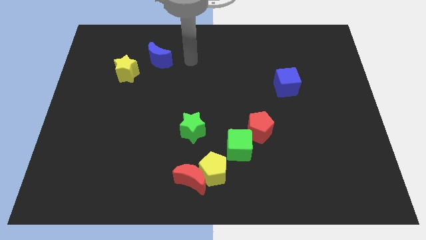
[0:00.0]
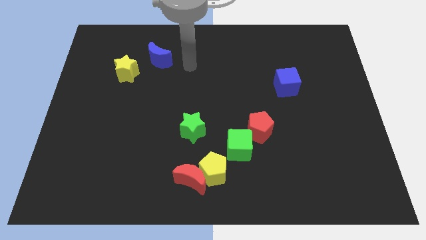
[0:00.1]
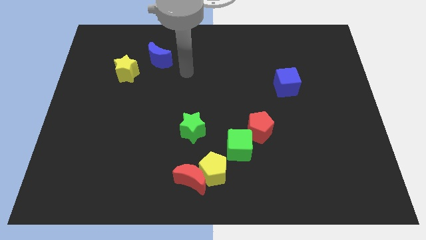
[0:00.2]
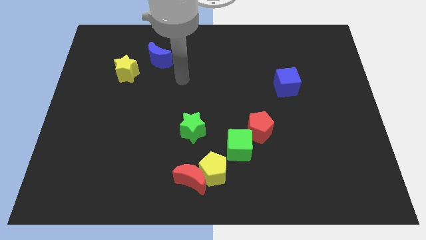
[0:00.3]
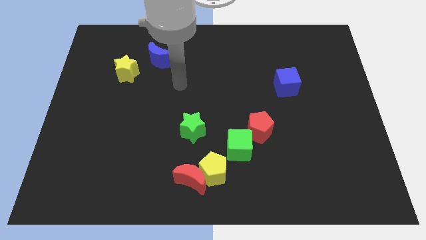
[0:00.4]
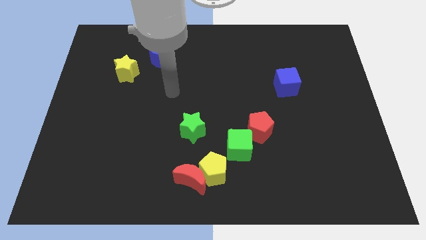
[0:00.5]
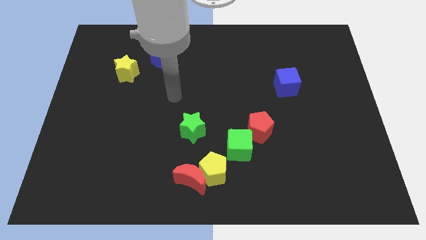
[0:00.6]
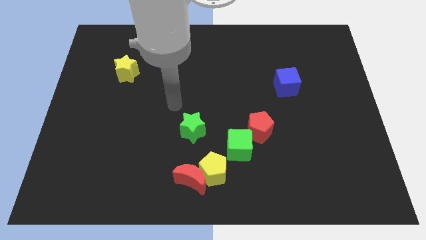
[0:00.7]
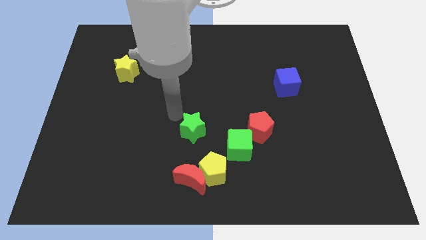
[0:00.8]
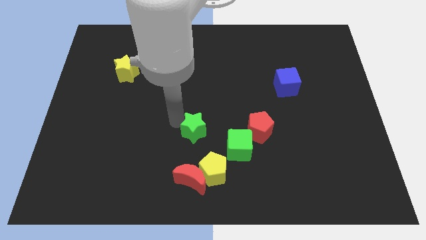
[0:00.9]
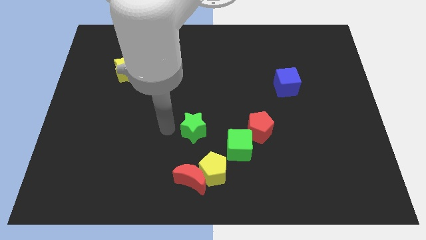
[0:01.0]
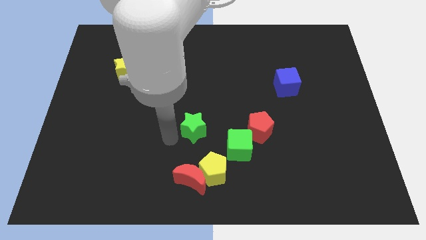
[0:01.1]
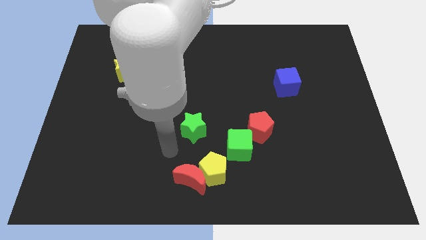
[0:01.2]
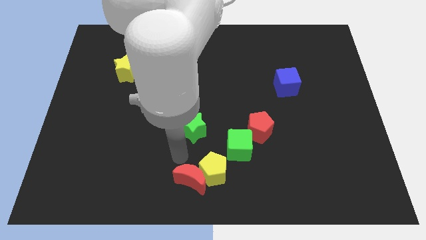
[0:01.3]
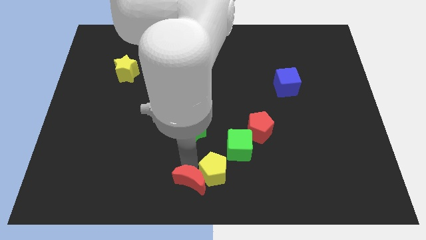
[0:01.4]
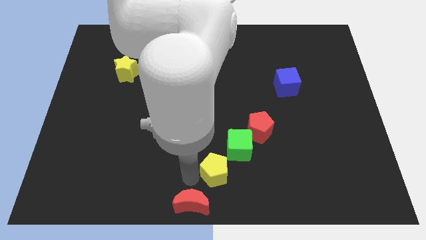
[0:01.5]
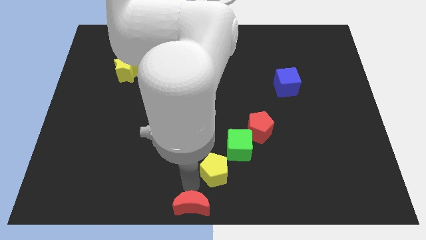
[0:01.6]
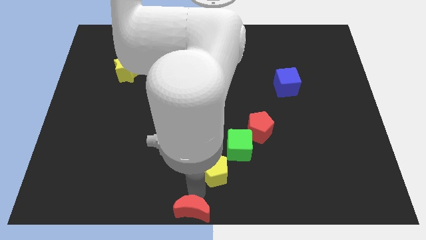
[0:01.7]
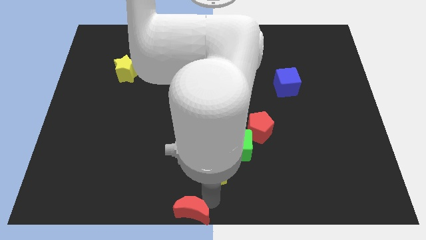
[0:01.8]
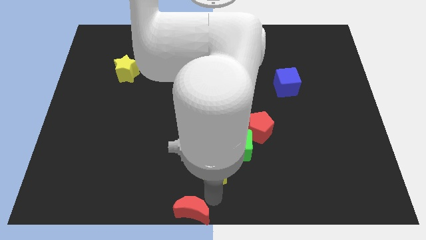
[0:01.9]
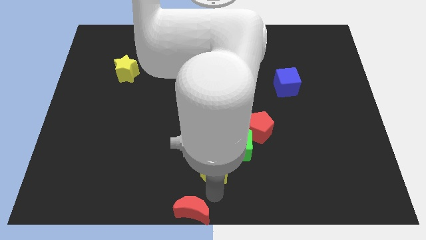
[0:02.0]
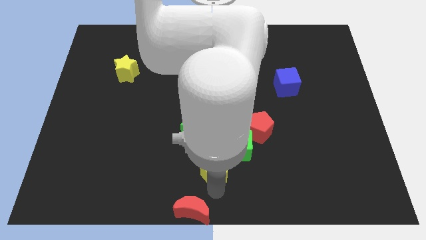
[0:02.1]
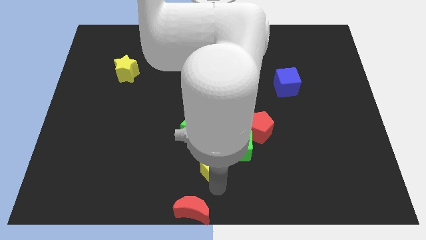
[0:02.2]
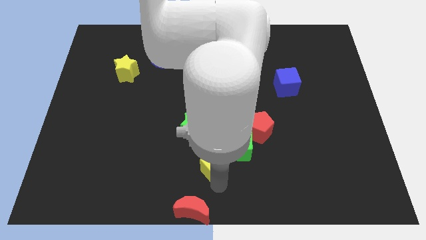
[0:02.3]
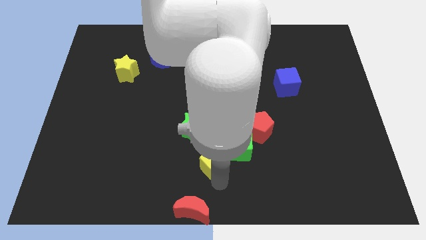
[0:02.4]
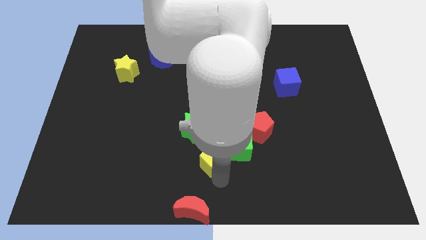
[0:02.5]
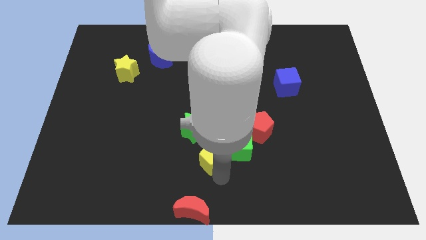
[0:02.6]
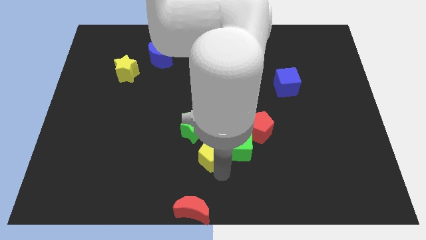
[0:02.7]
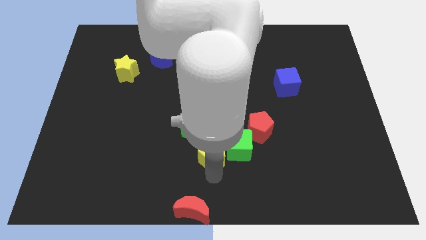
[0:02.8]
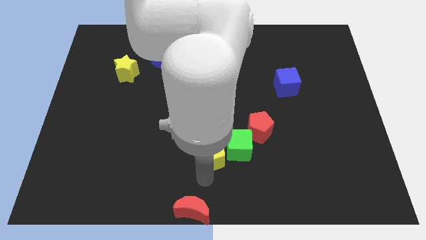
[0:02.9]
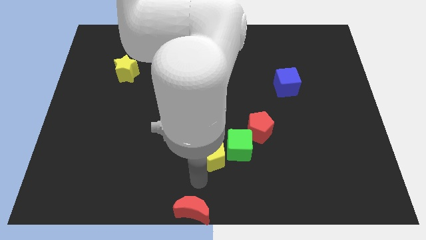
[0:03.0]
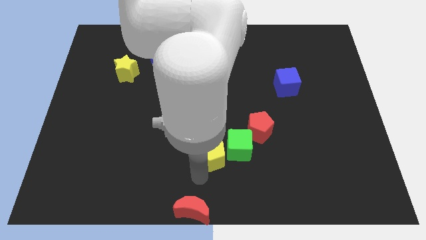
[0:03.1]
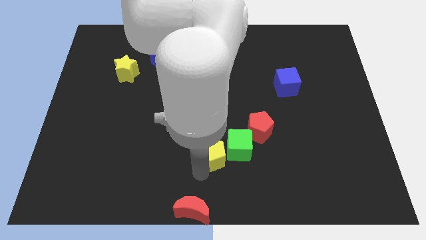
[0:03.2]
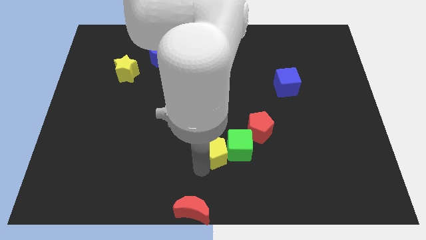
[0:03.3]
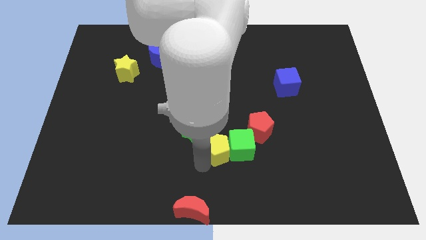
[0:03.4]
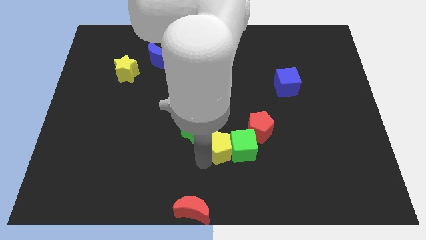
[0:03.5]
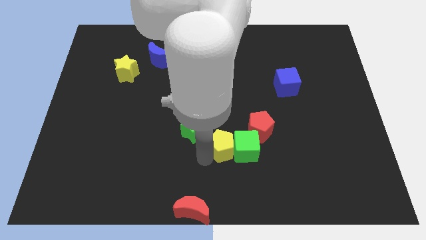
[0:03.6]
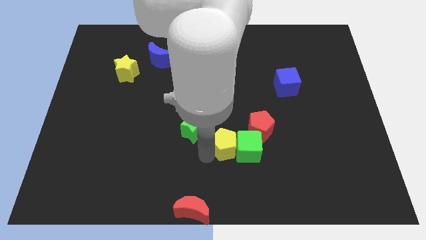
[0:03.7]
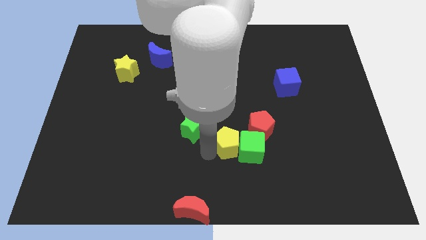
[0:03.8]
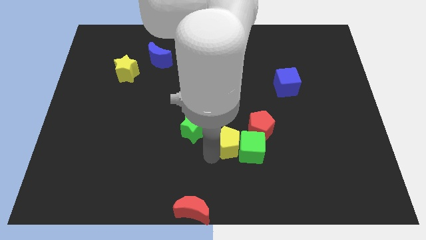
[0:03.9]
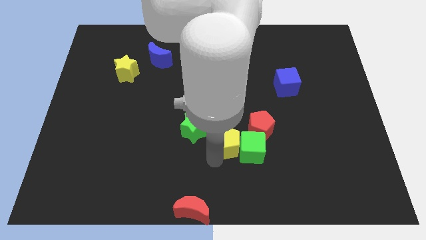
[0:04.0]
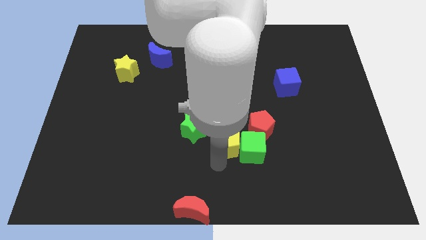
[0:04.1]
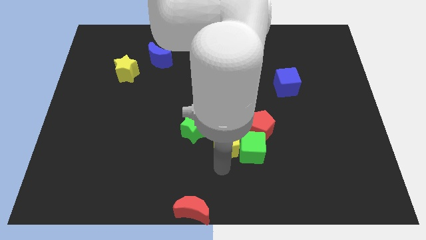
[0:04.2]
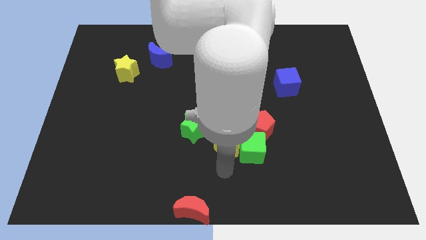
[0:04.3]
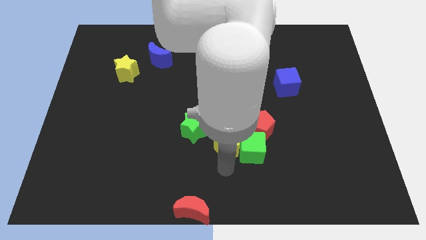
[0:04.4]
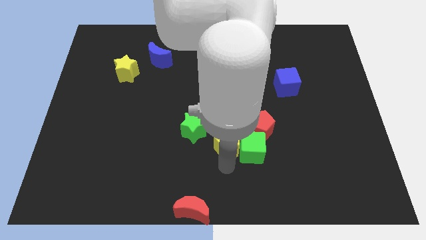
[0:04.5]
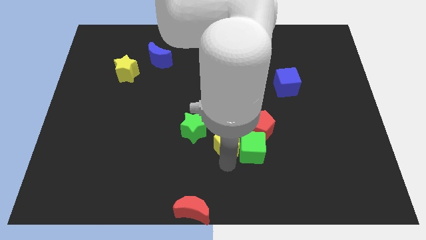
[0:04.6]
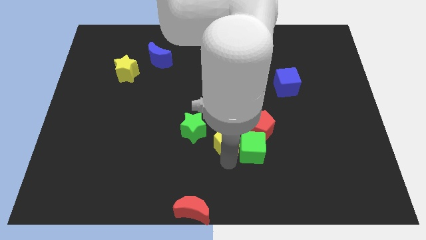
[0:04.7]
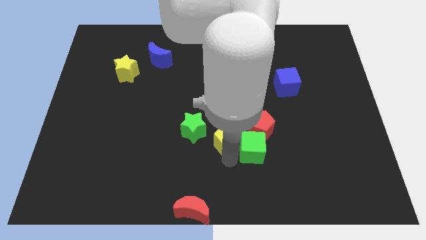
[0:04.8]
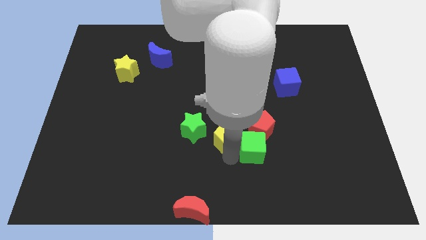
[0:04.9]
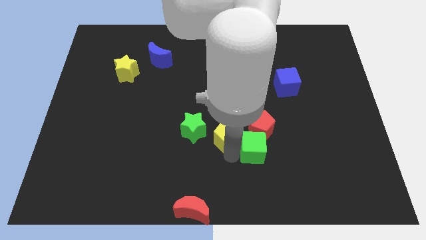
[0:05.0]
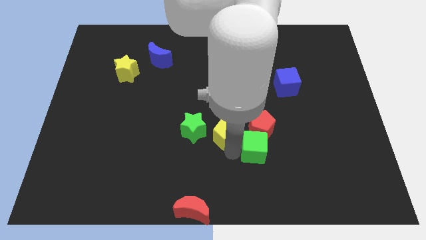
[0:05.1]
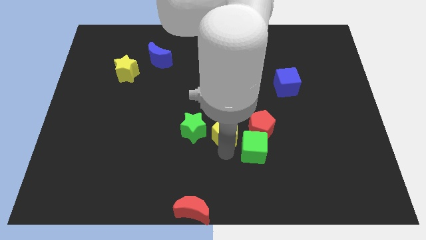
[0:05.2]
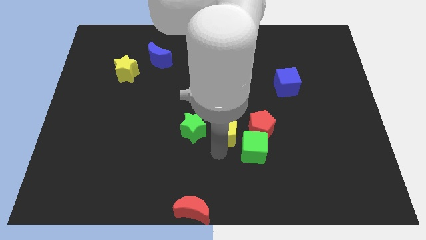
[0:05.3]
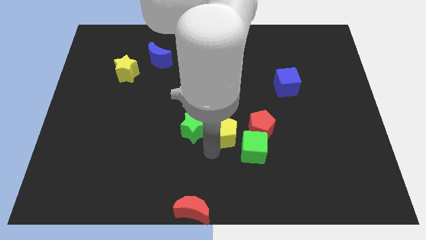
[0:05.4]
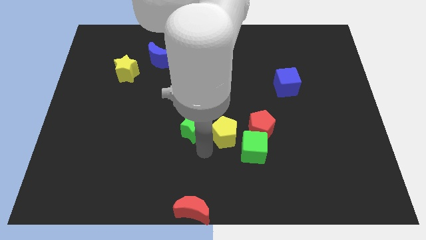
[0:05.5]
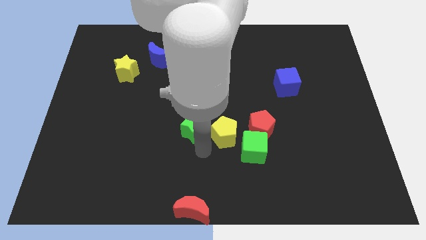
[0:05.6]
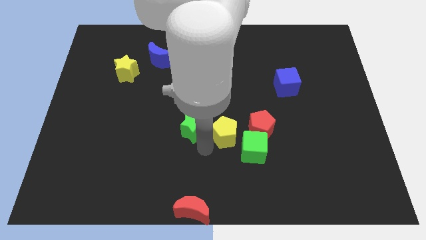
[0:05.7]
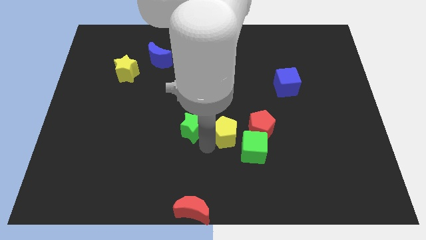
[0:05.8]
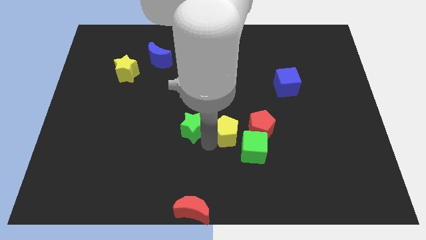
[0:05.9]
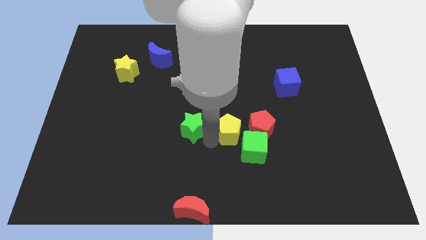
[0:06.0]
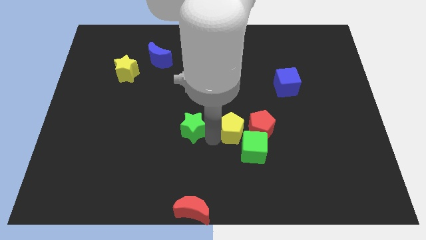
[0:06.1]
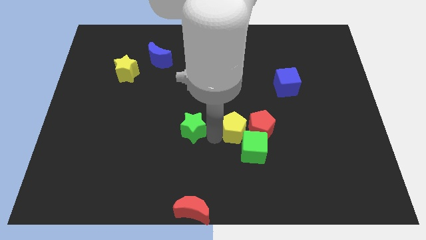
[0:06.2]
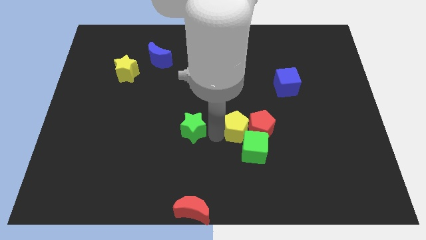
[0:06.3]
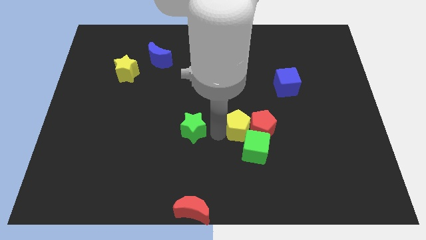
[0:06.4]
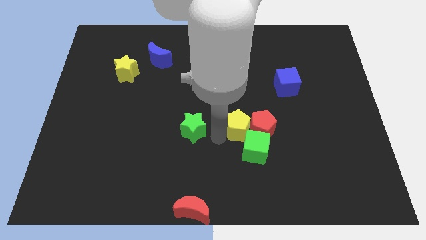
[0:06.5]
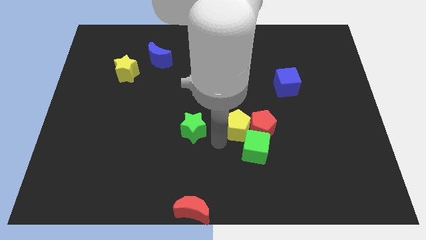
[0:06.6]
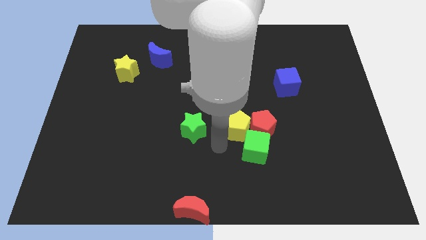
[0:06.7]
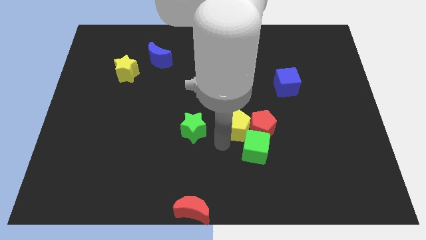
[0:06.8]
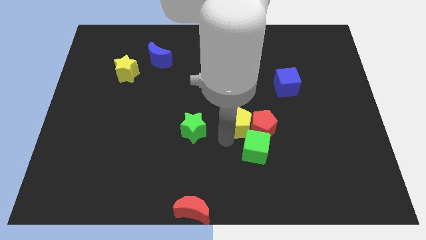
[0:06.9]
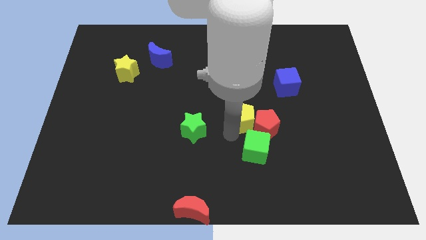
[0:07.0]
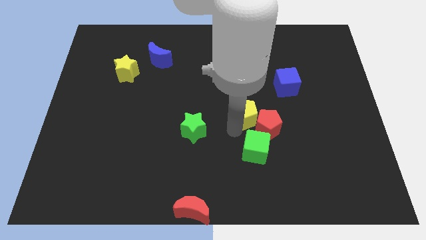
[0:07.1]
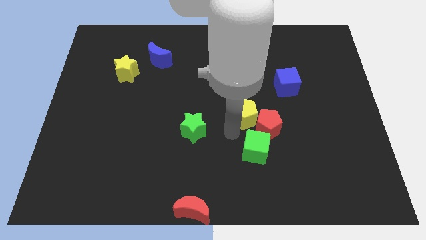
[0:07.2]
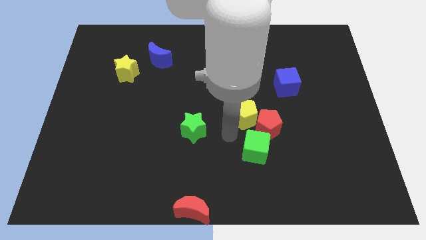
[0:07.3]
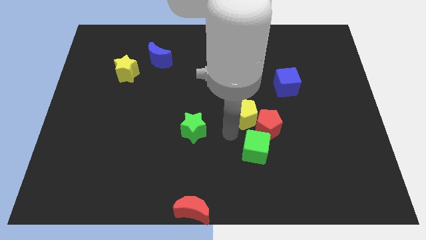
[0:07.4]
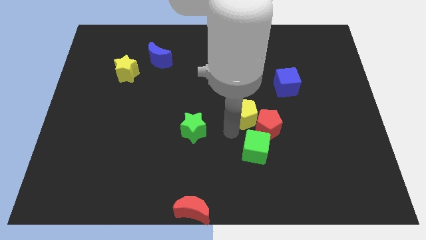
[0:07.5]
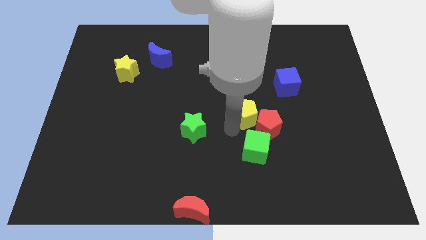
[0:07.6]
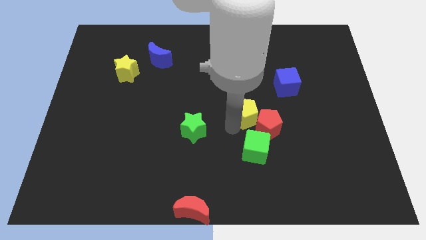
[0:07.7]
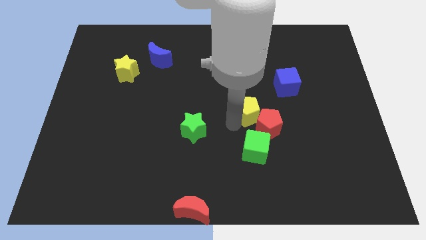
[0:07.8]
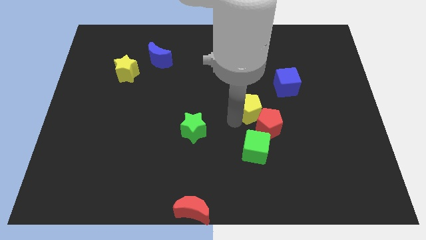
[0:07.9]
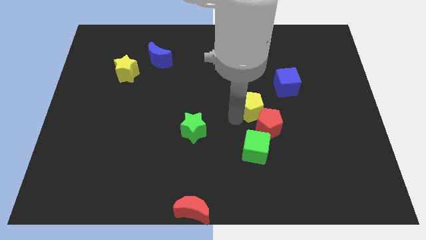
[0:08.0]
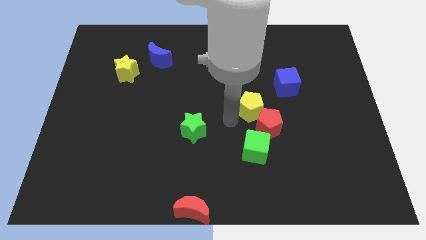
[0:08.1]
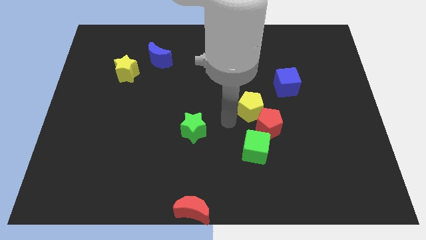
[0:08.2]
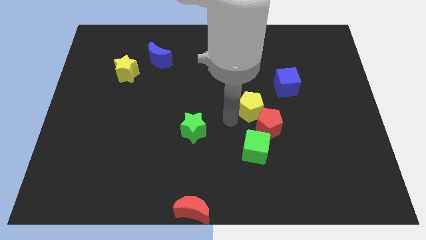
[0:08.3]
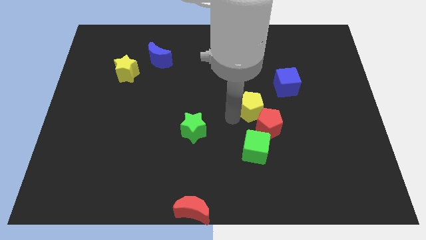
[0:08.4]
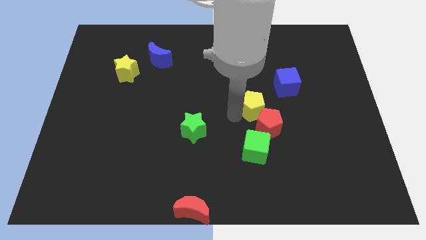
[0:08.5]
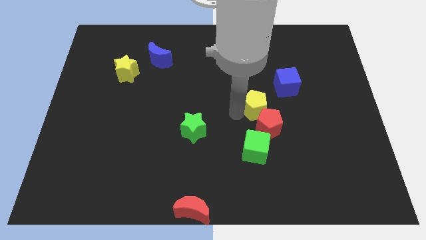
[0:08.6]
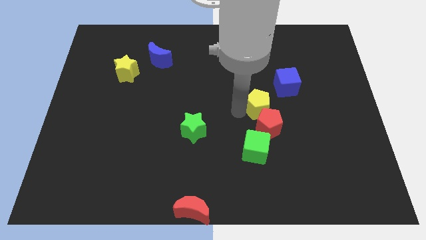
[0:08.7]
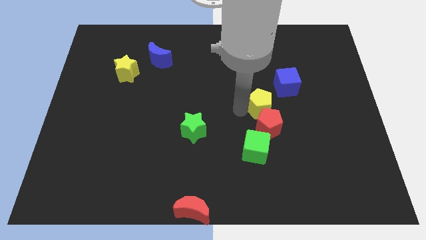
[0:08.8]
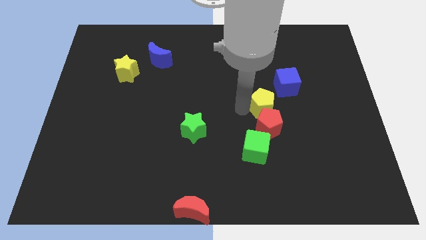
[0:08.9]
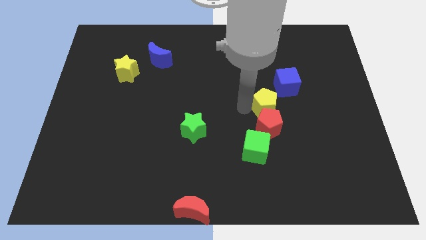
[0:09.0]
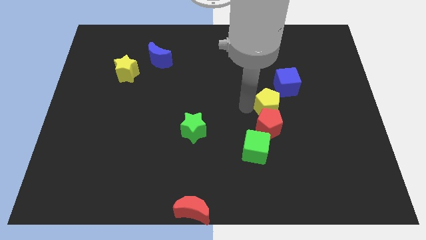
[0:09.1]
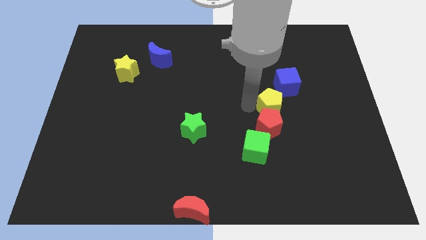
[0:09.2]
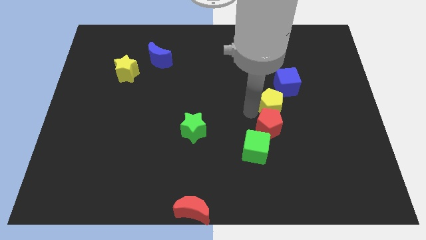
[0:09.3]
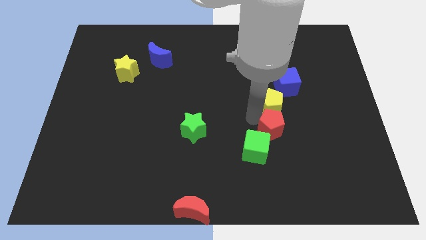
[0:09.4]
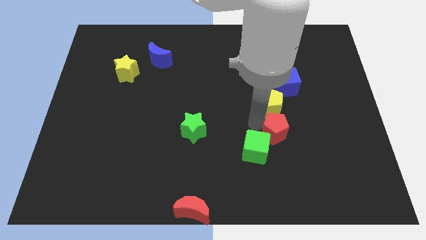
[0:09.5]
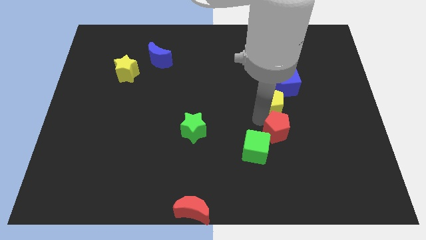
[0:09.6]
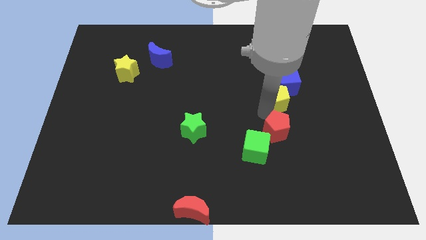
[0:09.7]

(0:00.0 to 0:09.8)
put the yellow pentagon towards the blue cube
